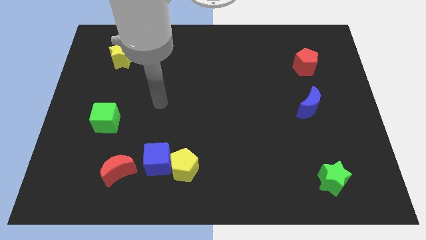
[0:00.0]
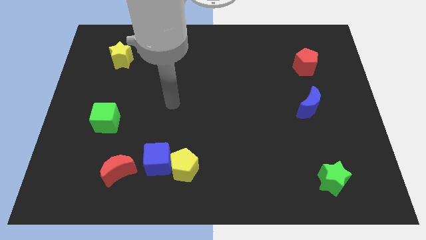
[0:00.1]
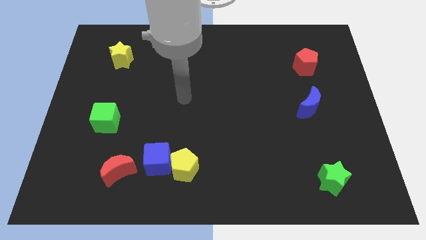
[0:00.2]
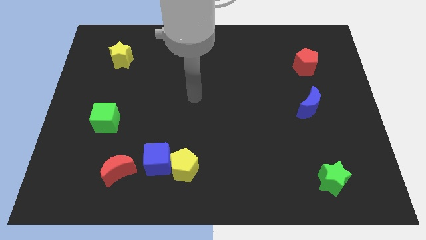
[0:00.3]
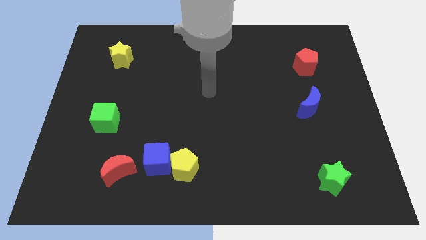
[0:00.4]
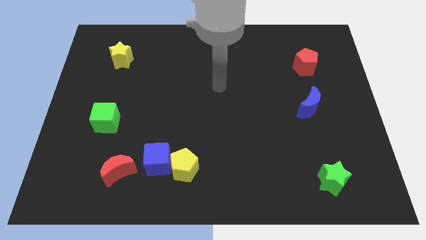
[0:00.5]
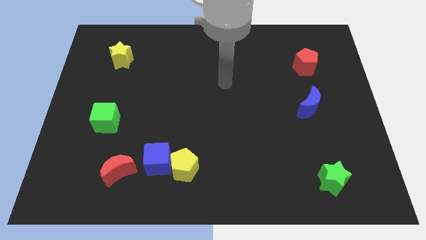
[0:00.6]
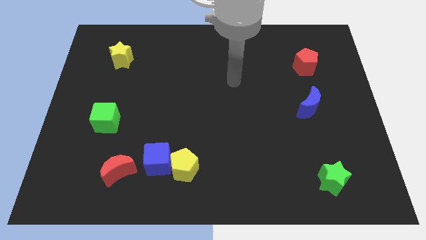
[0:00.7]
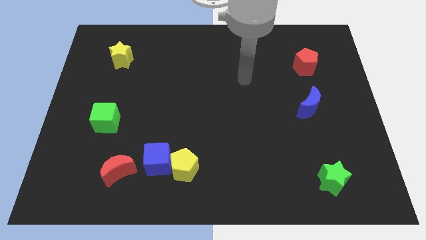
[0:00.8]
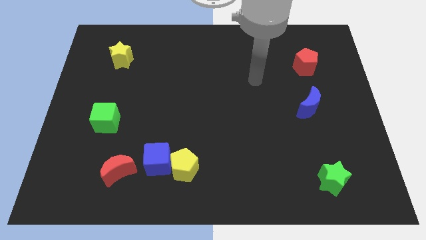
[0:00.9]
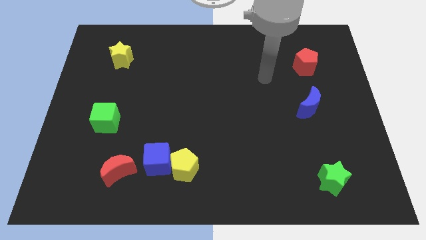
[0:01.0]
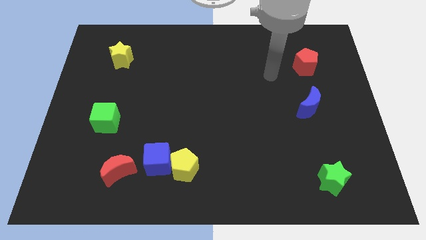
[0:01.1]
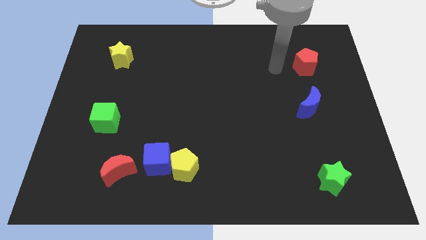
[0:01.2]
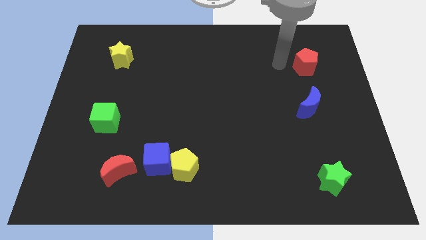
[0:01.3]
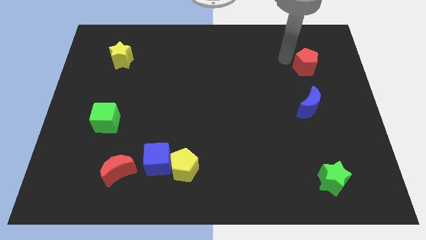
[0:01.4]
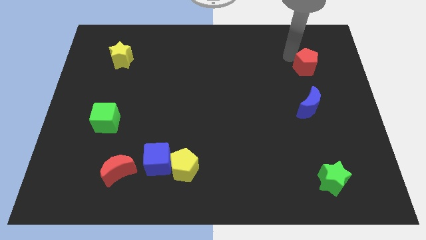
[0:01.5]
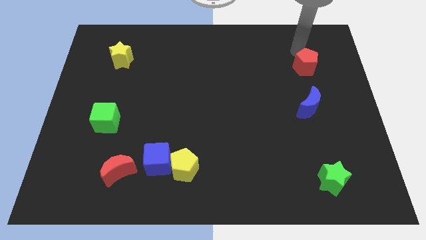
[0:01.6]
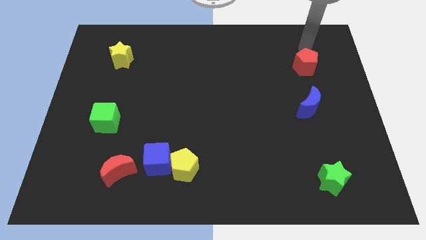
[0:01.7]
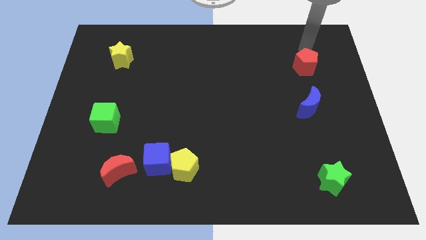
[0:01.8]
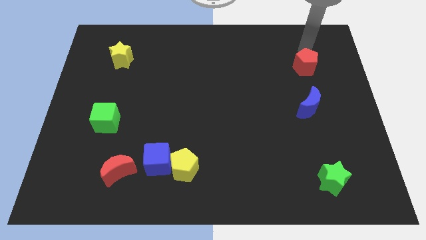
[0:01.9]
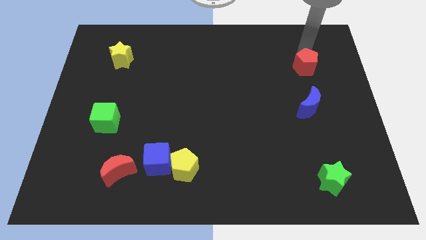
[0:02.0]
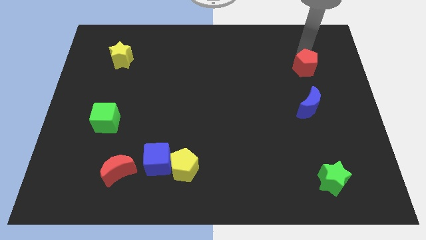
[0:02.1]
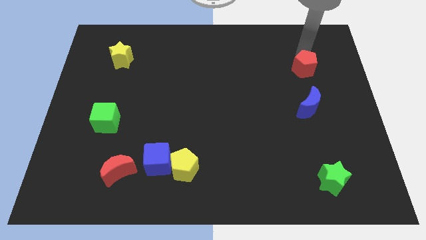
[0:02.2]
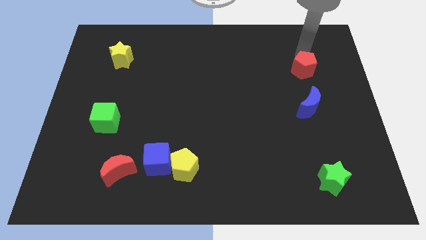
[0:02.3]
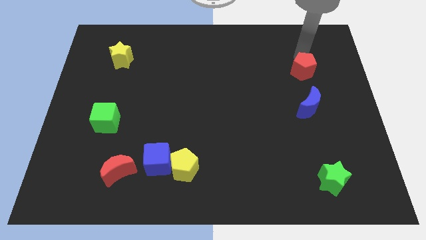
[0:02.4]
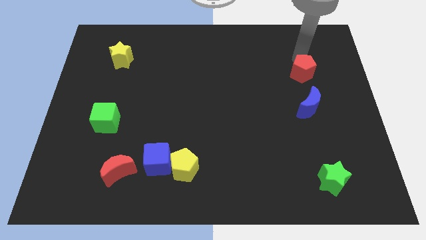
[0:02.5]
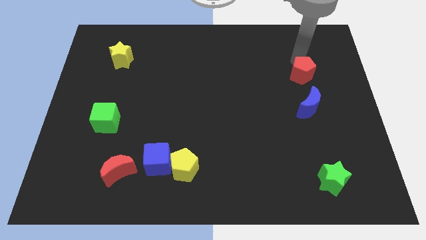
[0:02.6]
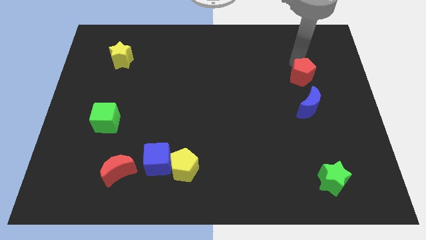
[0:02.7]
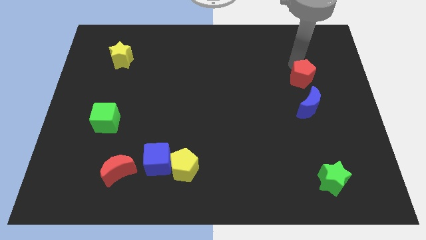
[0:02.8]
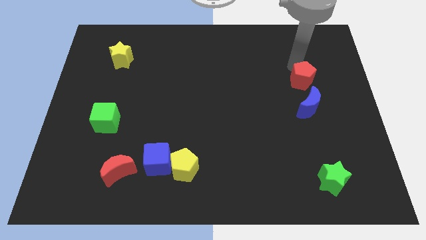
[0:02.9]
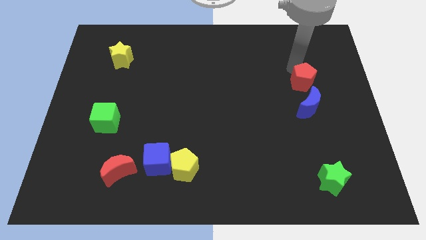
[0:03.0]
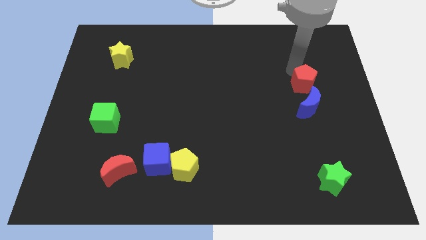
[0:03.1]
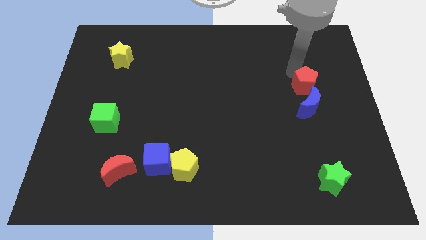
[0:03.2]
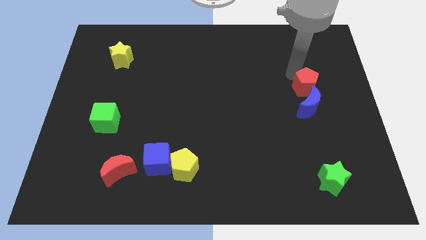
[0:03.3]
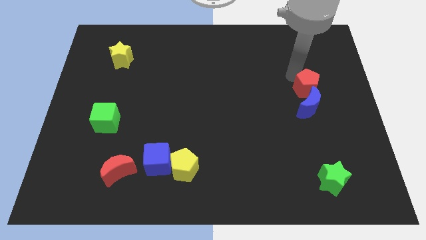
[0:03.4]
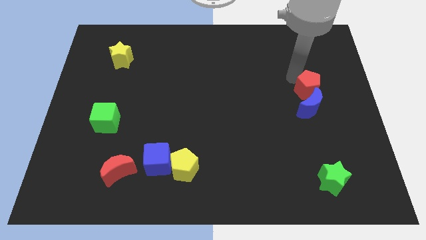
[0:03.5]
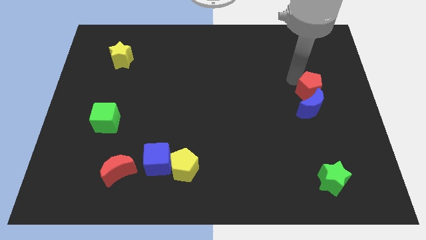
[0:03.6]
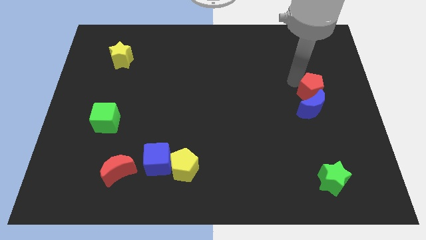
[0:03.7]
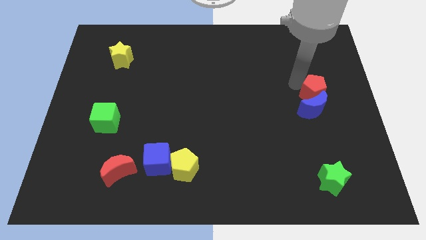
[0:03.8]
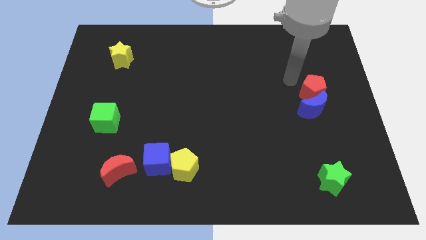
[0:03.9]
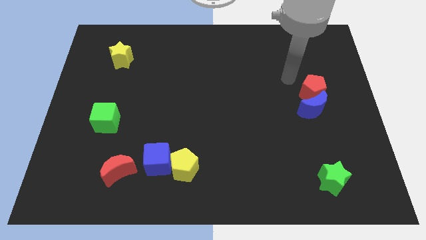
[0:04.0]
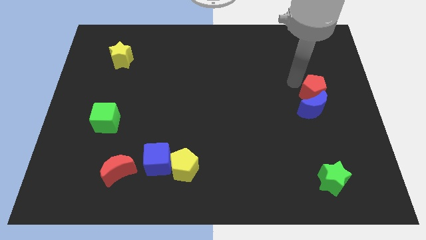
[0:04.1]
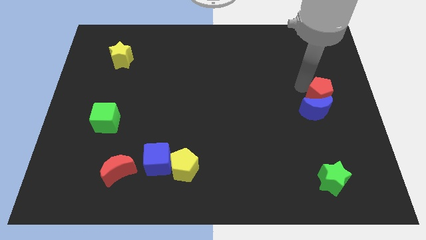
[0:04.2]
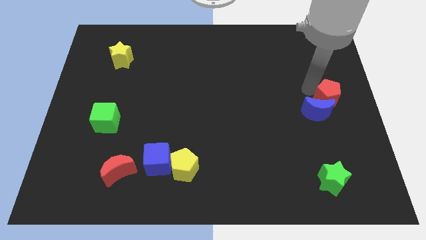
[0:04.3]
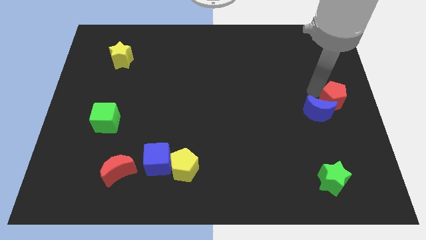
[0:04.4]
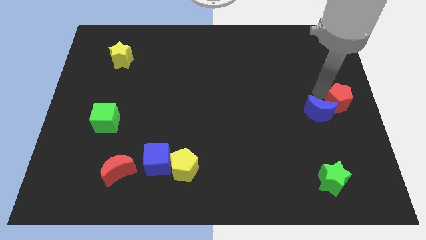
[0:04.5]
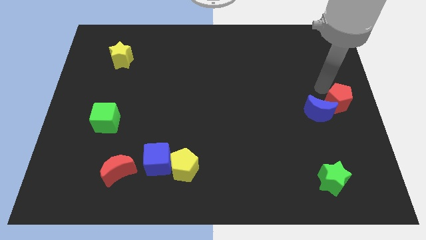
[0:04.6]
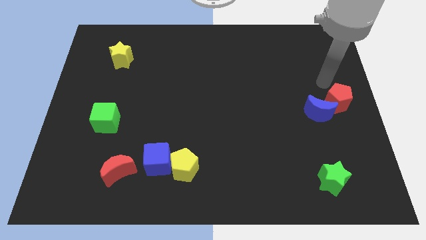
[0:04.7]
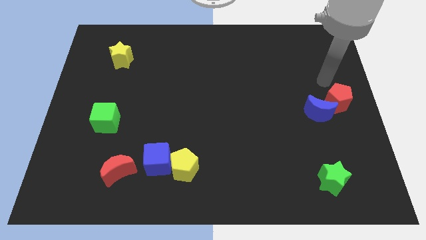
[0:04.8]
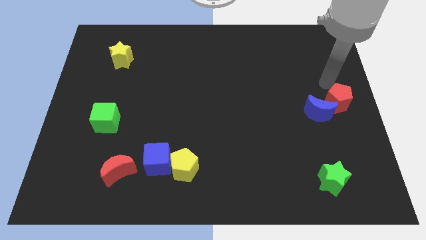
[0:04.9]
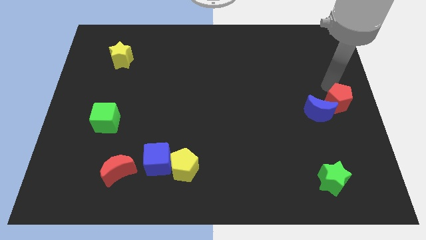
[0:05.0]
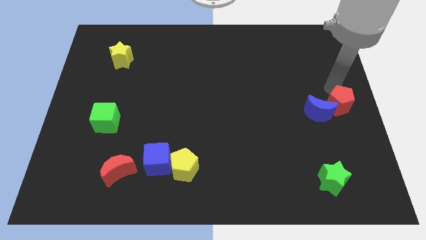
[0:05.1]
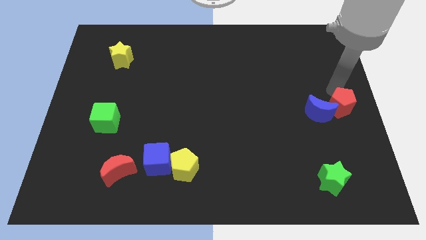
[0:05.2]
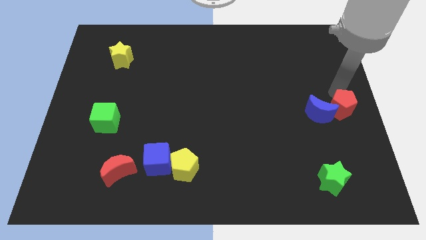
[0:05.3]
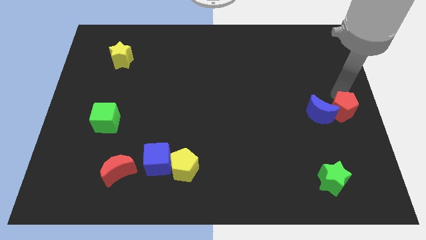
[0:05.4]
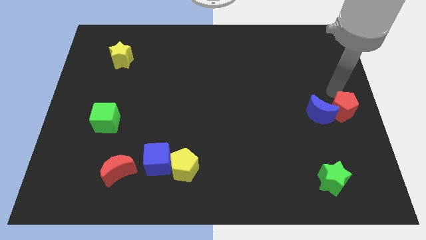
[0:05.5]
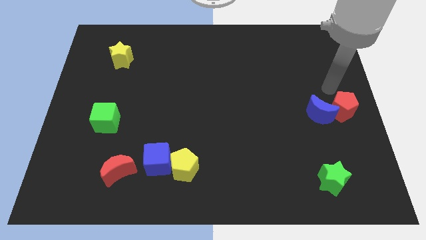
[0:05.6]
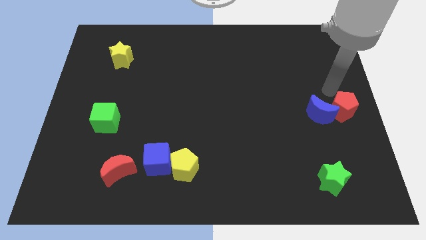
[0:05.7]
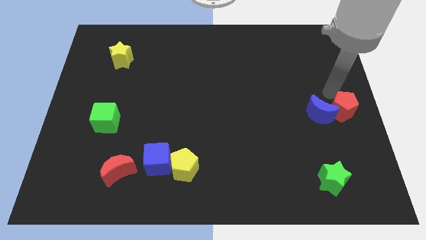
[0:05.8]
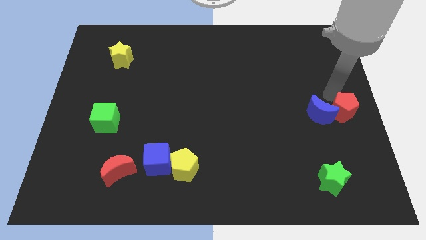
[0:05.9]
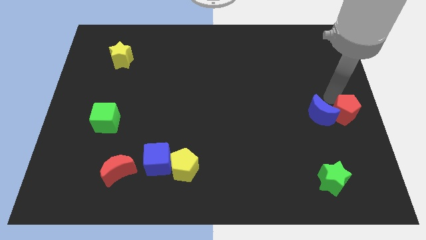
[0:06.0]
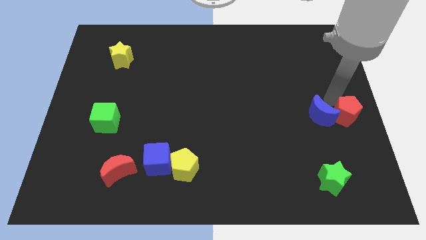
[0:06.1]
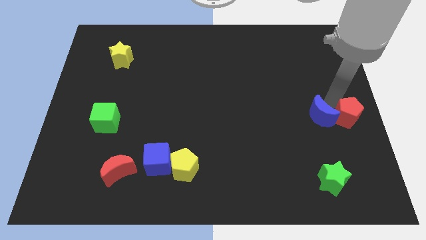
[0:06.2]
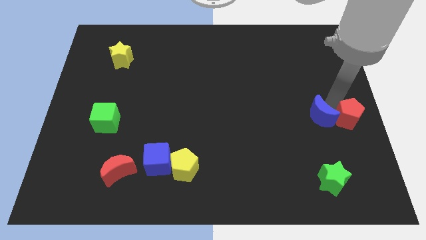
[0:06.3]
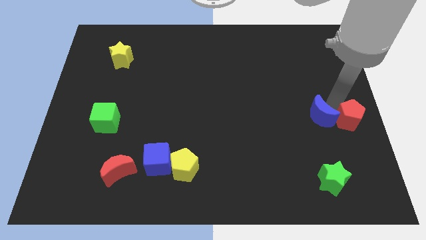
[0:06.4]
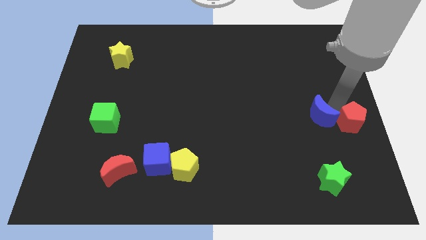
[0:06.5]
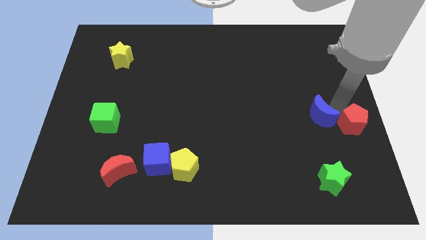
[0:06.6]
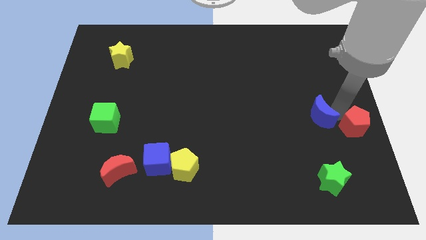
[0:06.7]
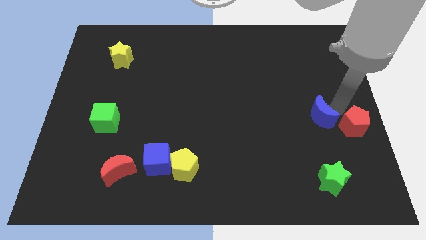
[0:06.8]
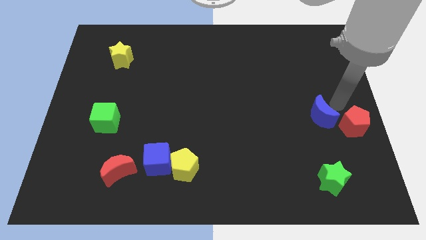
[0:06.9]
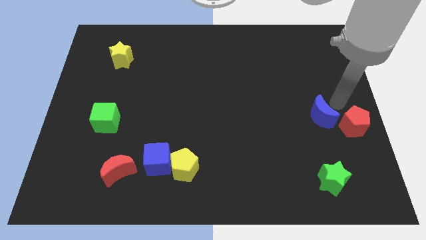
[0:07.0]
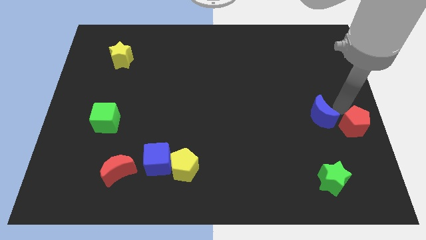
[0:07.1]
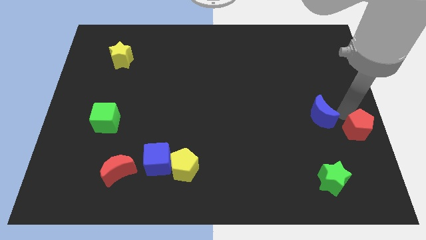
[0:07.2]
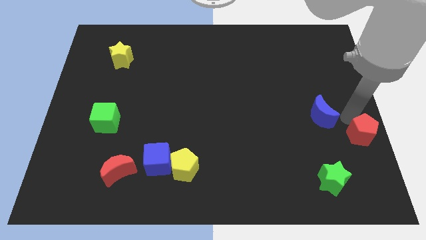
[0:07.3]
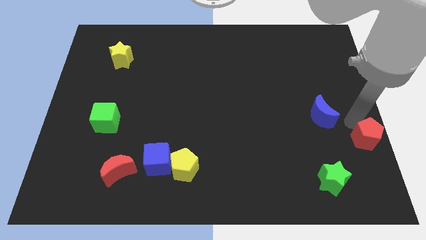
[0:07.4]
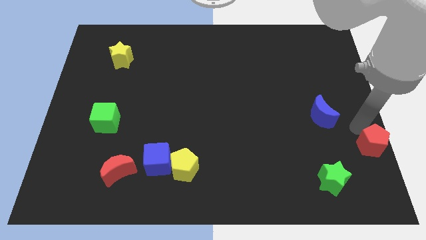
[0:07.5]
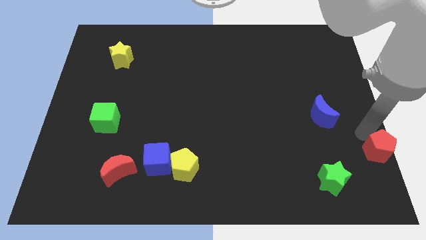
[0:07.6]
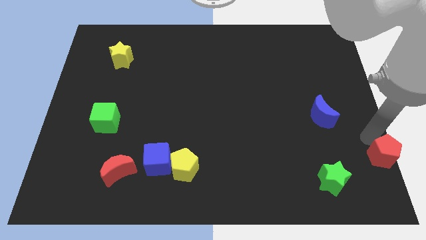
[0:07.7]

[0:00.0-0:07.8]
put the red pentagon to the bottom right of the board
